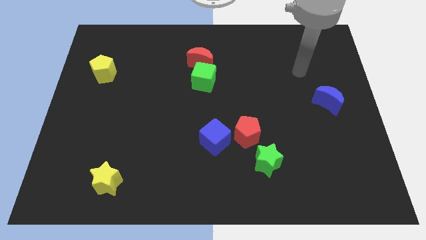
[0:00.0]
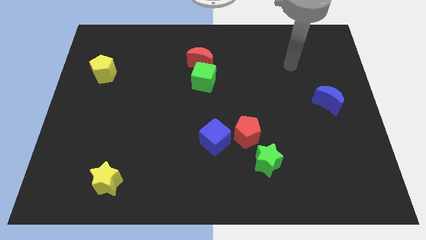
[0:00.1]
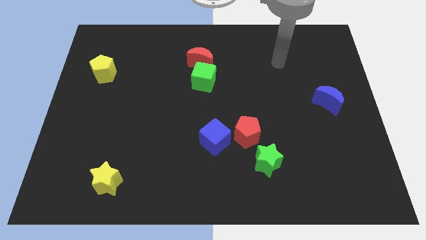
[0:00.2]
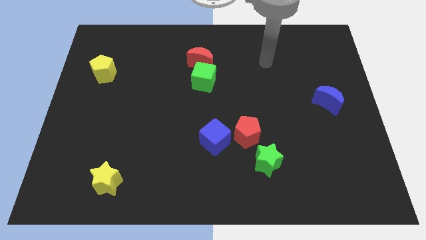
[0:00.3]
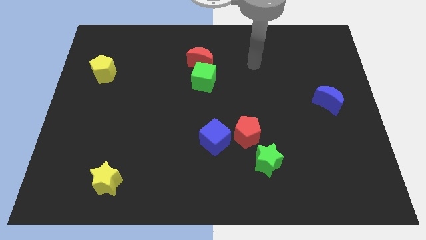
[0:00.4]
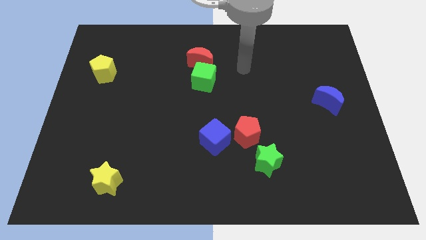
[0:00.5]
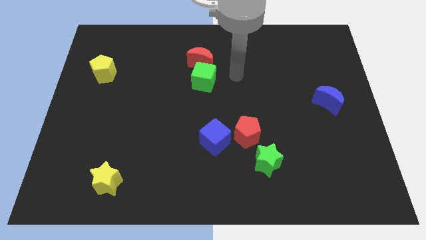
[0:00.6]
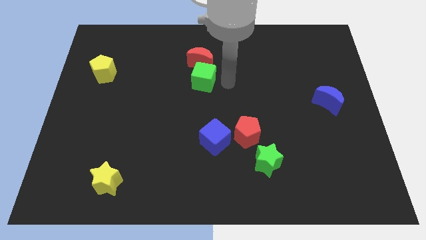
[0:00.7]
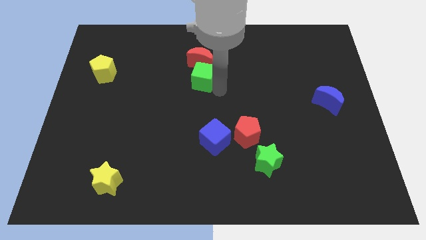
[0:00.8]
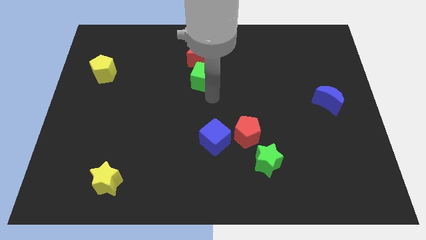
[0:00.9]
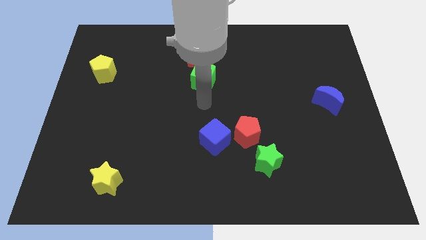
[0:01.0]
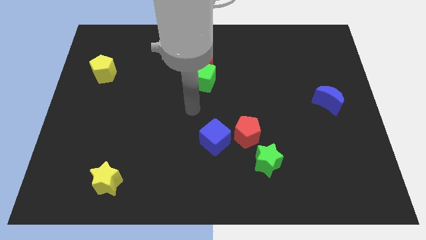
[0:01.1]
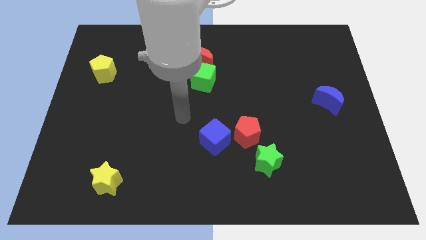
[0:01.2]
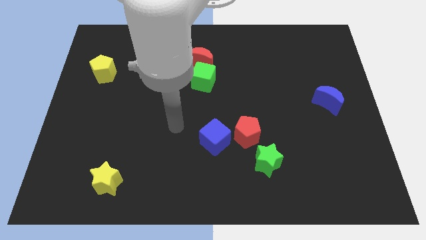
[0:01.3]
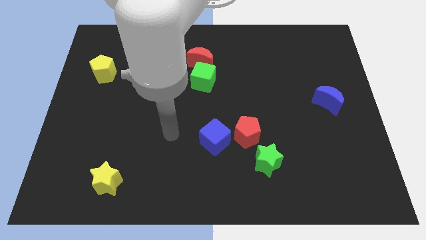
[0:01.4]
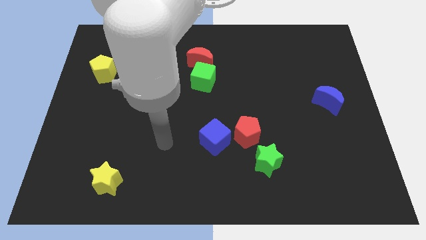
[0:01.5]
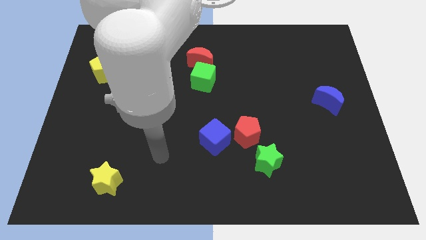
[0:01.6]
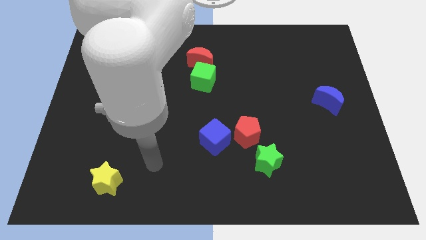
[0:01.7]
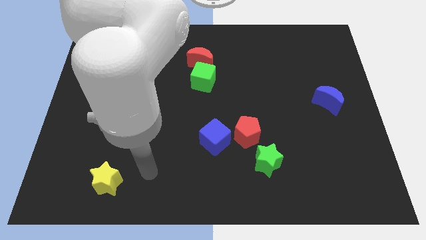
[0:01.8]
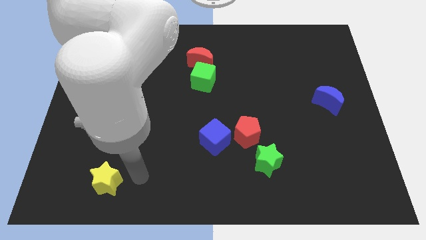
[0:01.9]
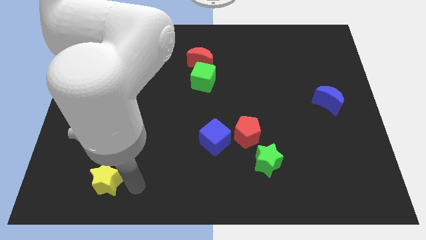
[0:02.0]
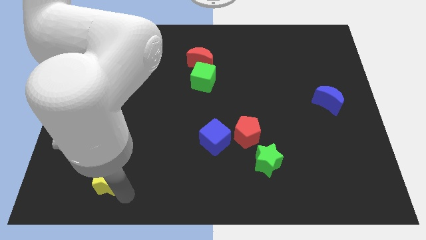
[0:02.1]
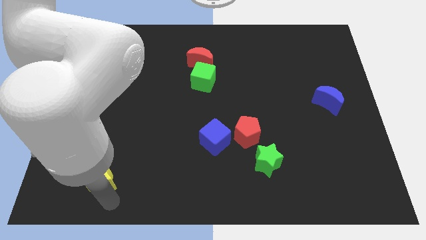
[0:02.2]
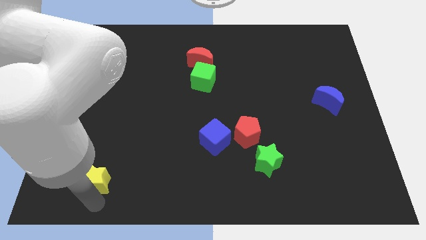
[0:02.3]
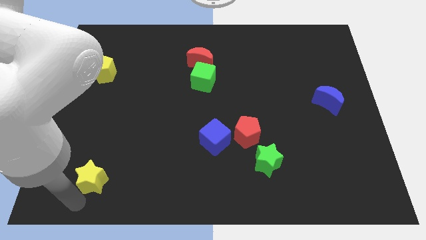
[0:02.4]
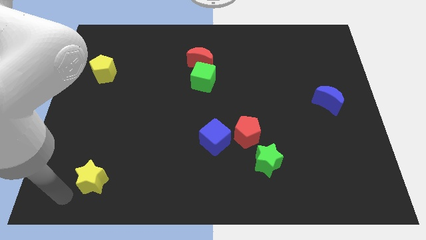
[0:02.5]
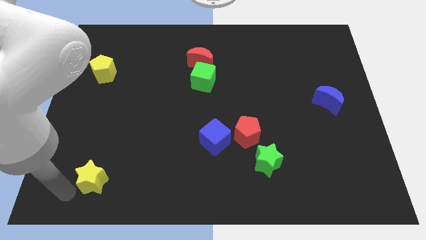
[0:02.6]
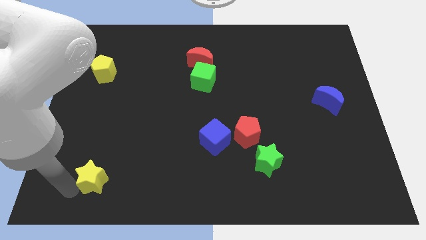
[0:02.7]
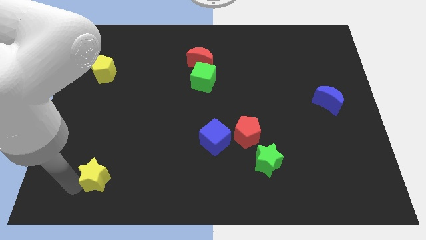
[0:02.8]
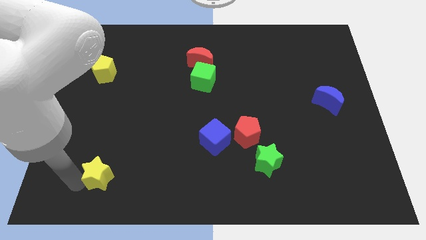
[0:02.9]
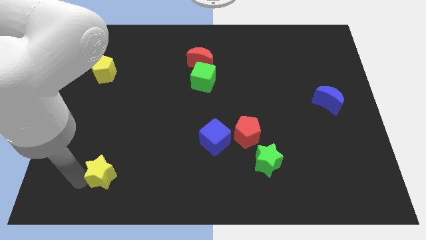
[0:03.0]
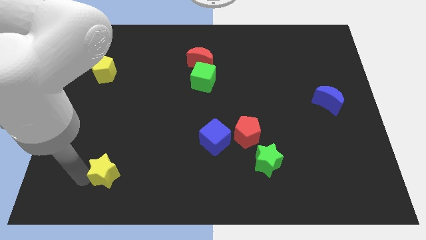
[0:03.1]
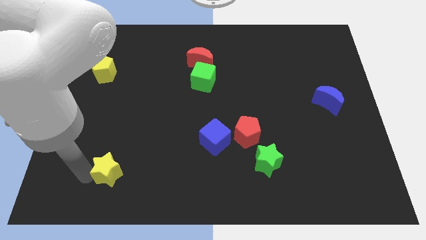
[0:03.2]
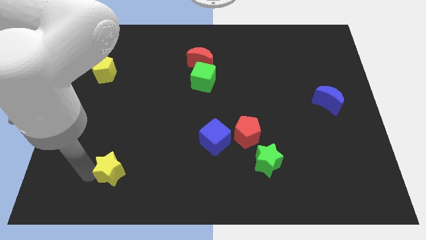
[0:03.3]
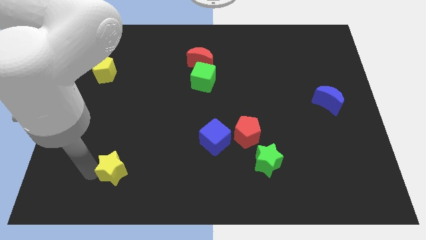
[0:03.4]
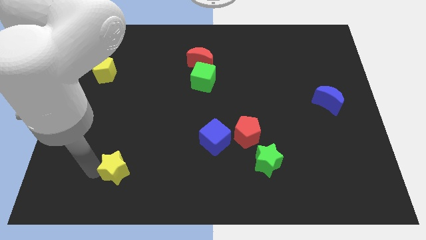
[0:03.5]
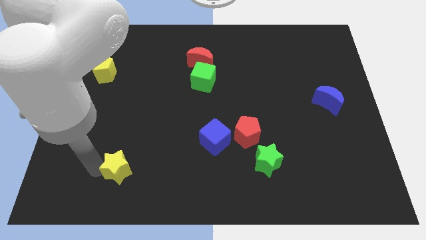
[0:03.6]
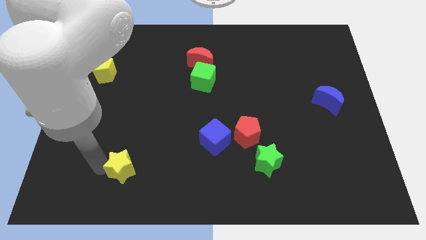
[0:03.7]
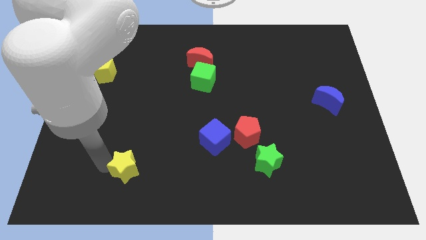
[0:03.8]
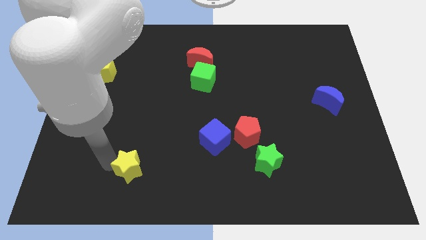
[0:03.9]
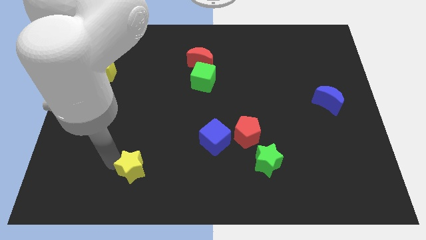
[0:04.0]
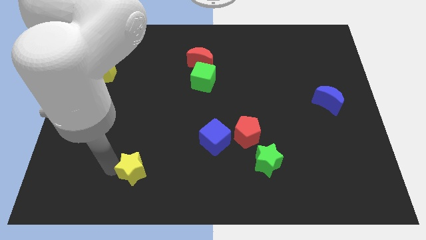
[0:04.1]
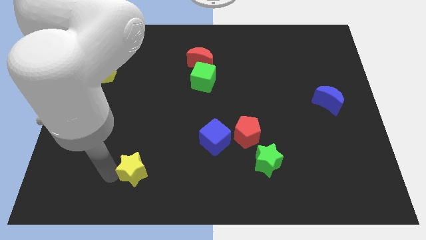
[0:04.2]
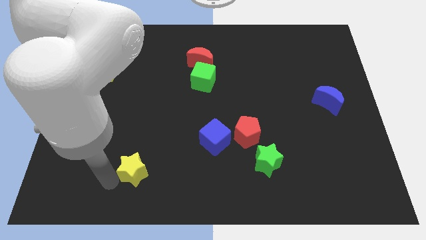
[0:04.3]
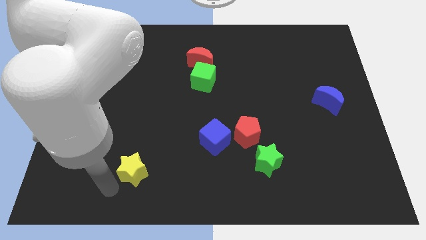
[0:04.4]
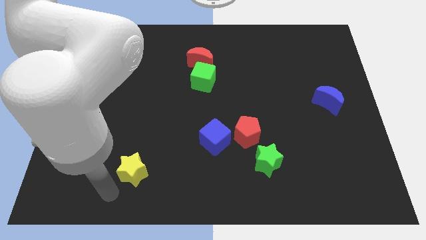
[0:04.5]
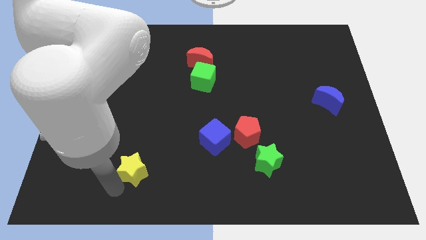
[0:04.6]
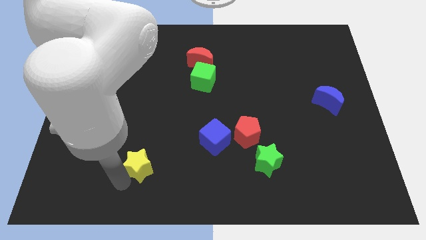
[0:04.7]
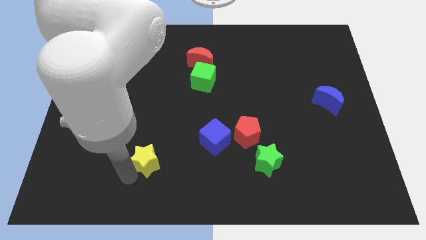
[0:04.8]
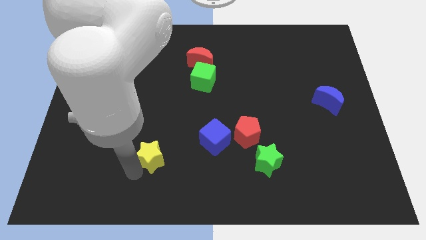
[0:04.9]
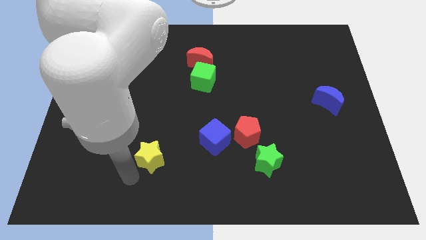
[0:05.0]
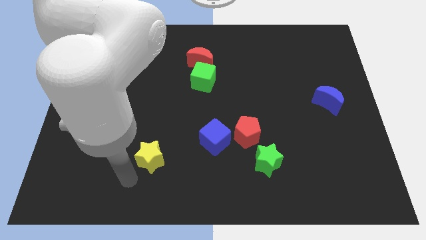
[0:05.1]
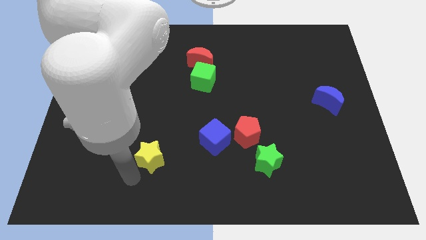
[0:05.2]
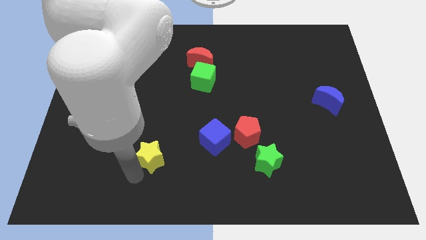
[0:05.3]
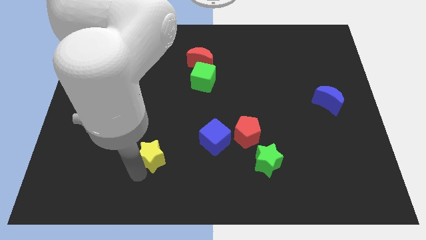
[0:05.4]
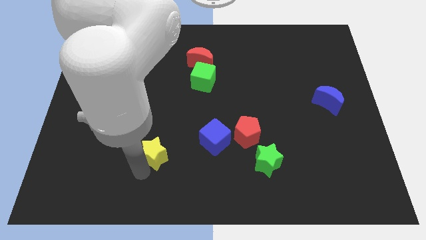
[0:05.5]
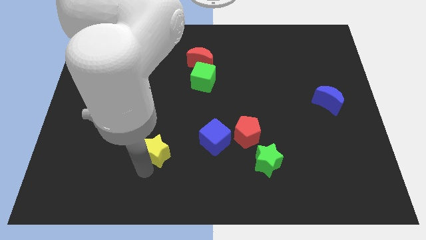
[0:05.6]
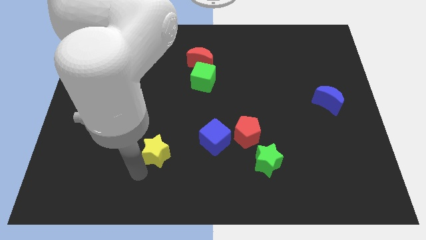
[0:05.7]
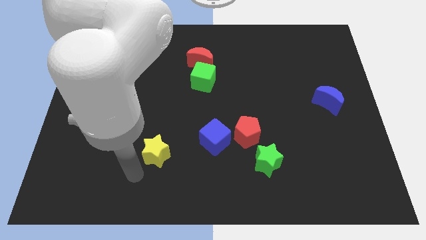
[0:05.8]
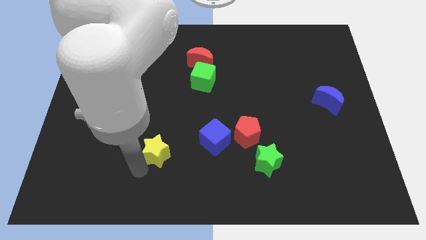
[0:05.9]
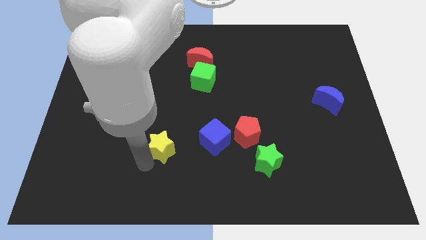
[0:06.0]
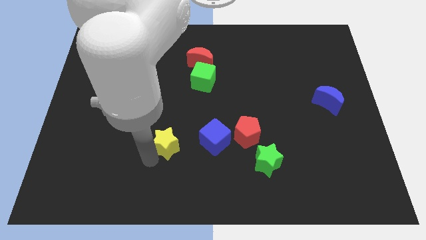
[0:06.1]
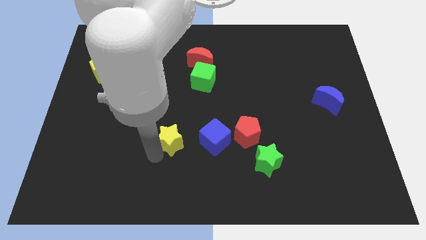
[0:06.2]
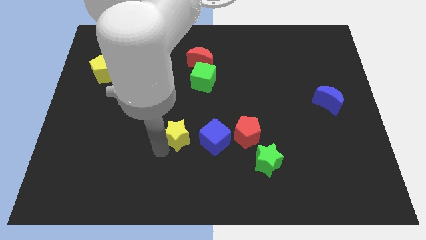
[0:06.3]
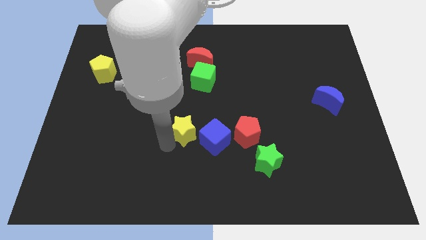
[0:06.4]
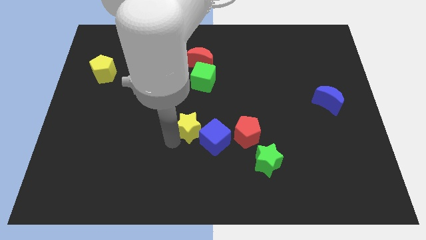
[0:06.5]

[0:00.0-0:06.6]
push the yellow star upwards and then to the right

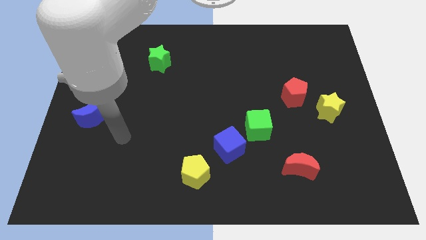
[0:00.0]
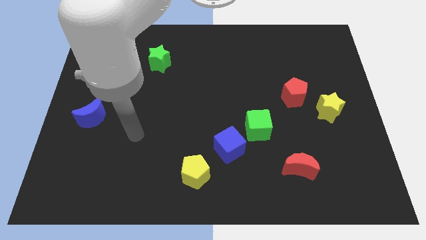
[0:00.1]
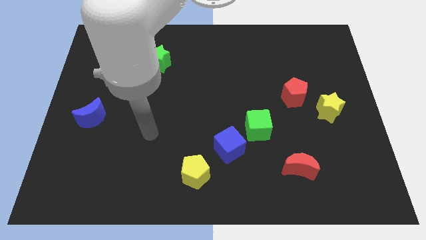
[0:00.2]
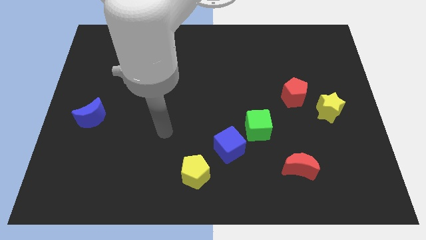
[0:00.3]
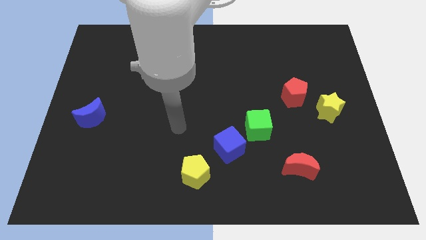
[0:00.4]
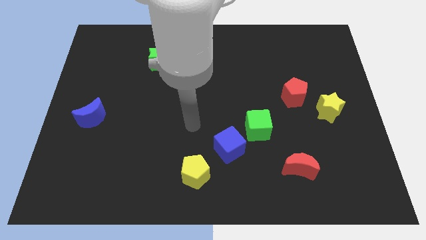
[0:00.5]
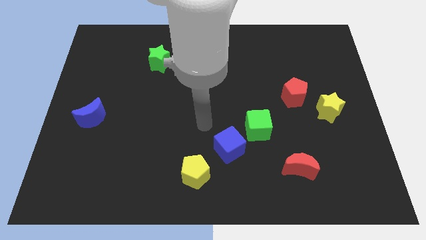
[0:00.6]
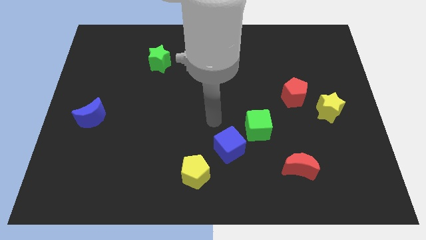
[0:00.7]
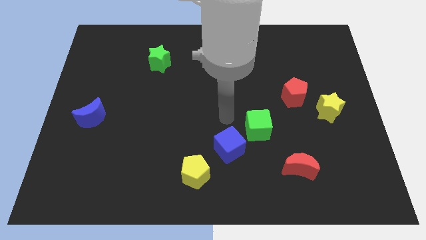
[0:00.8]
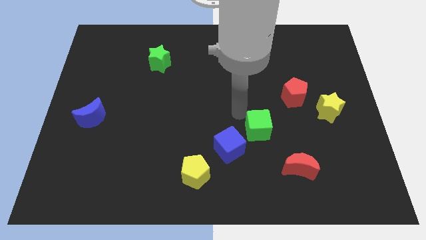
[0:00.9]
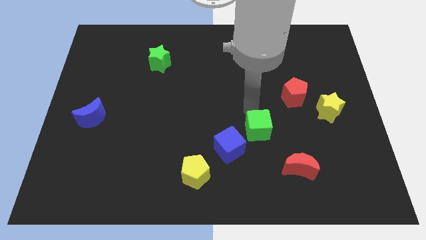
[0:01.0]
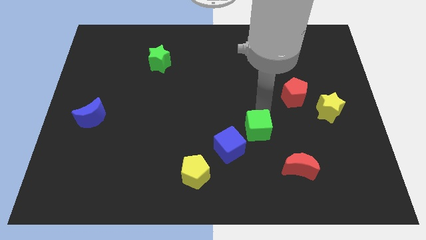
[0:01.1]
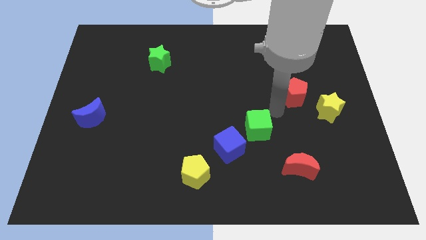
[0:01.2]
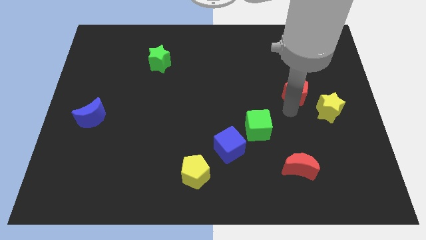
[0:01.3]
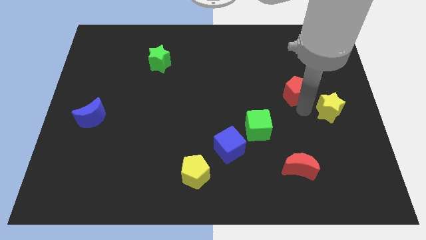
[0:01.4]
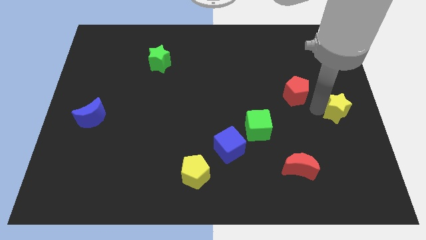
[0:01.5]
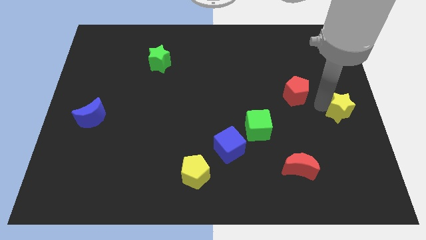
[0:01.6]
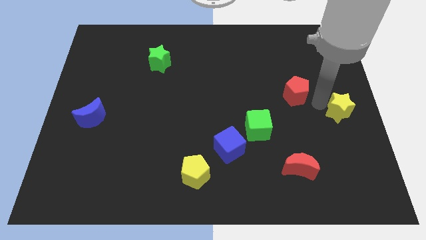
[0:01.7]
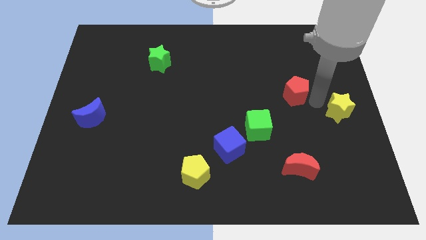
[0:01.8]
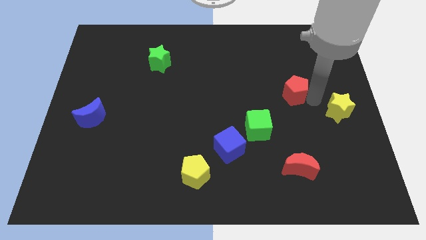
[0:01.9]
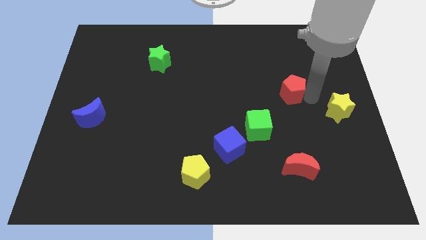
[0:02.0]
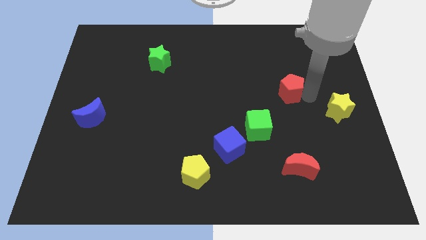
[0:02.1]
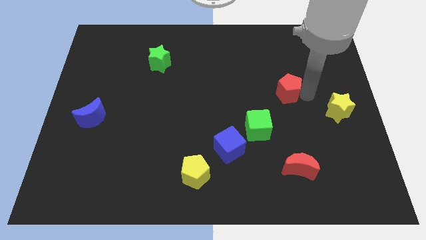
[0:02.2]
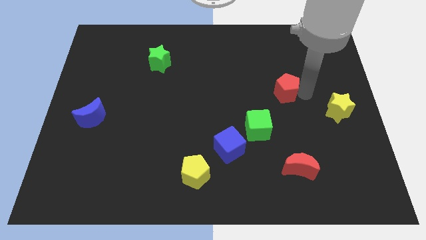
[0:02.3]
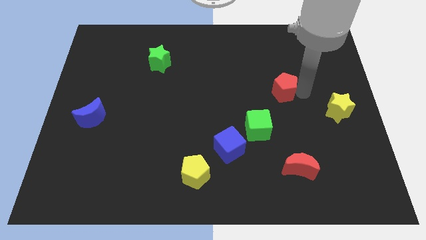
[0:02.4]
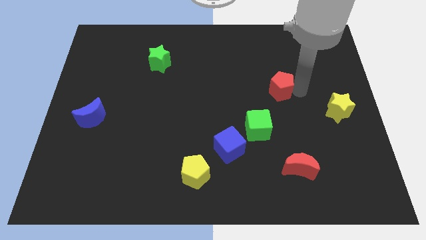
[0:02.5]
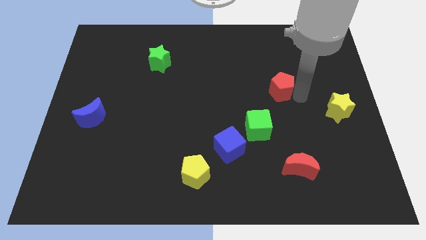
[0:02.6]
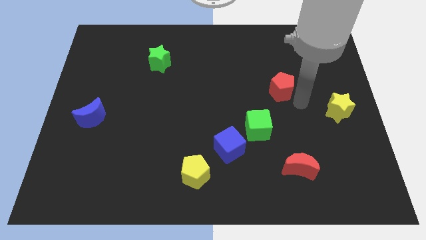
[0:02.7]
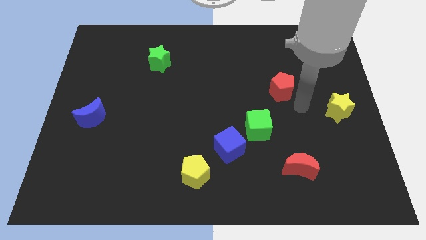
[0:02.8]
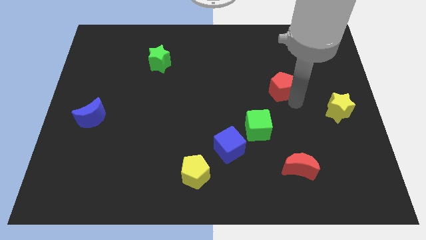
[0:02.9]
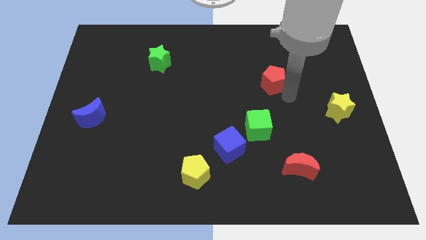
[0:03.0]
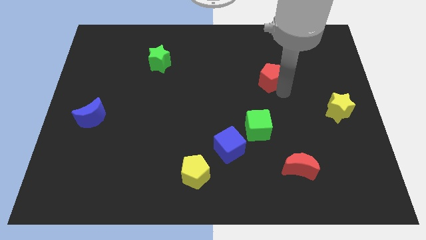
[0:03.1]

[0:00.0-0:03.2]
push the red pentagon somewhat up and then left
